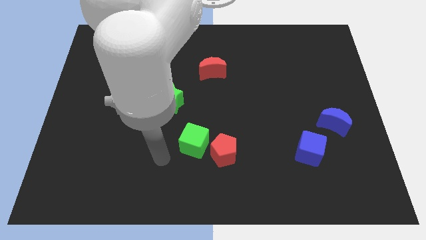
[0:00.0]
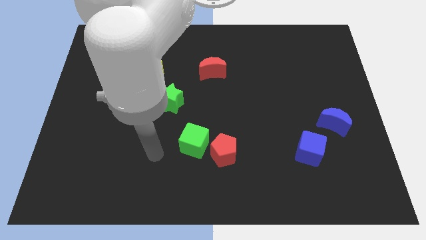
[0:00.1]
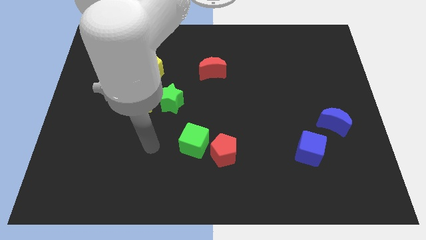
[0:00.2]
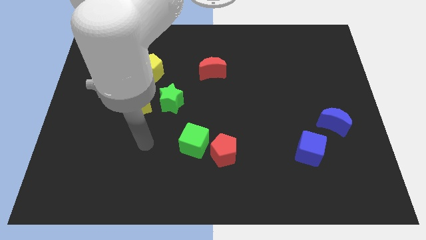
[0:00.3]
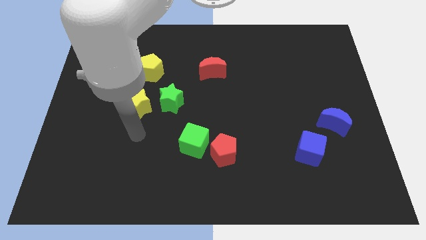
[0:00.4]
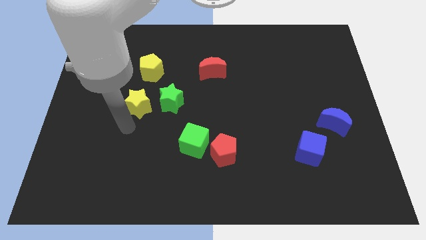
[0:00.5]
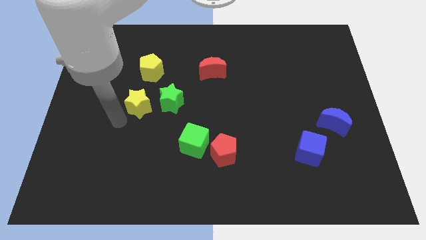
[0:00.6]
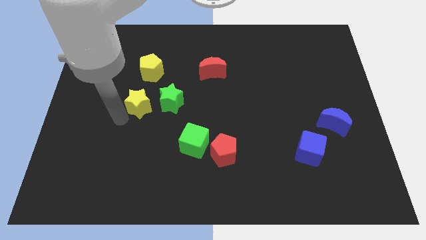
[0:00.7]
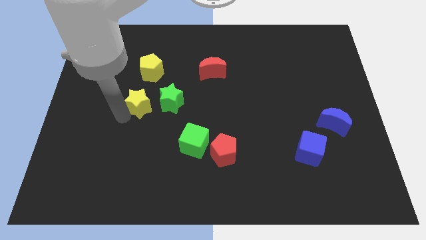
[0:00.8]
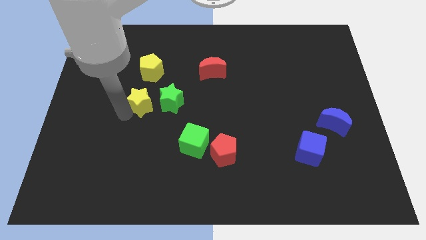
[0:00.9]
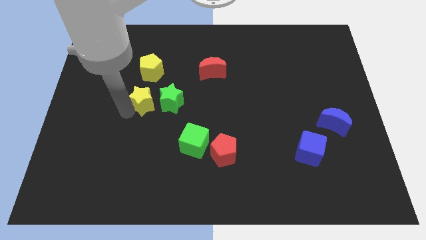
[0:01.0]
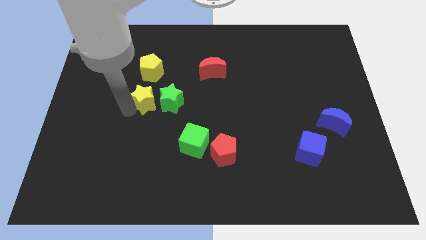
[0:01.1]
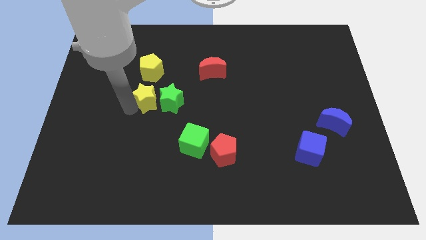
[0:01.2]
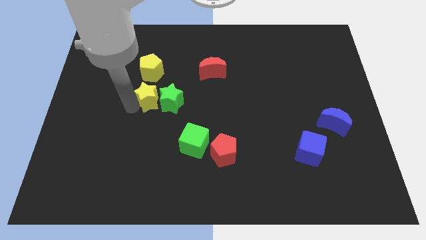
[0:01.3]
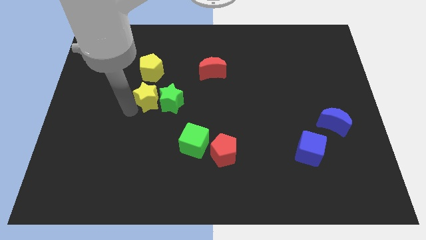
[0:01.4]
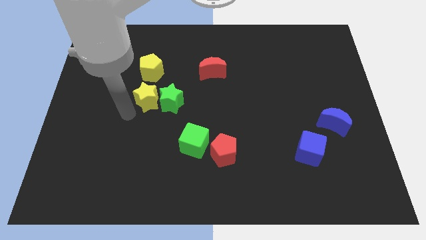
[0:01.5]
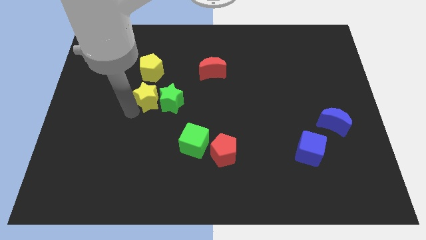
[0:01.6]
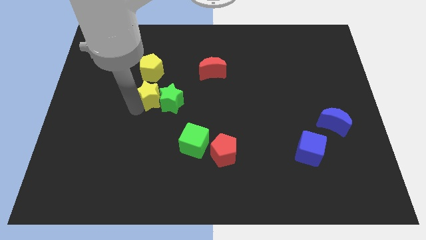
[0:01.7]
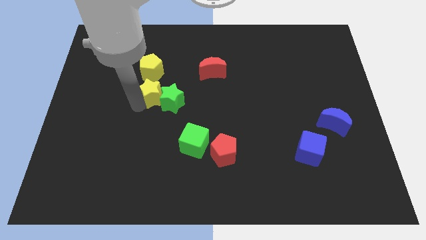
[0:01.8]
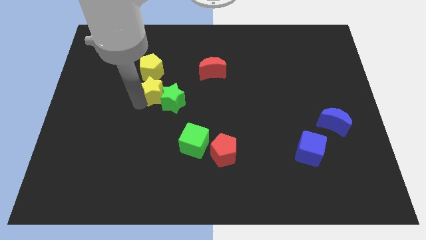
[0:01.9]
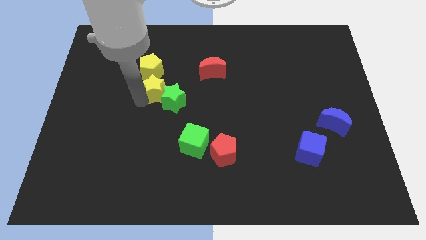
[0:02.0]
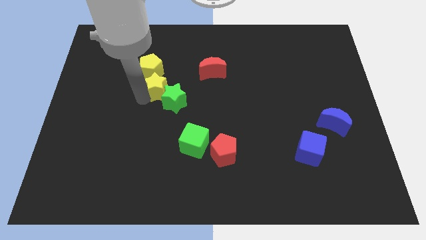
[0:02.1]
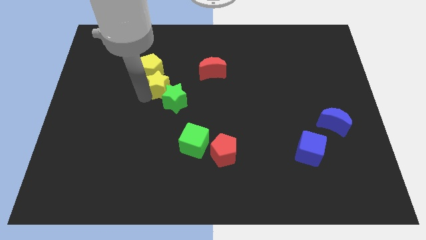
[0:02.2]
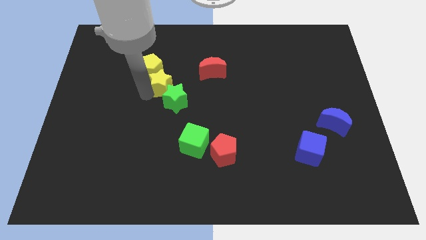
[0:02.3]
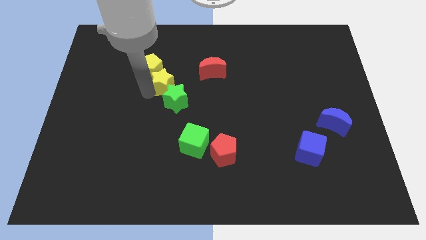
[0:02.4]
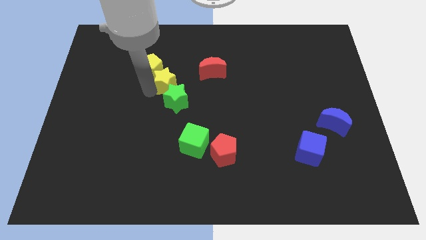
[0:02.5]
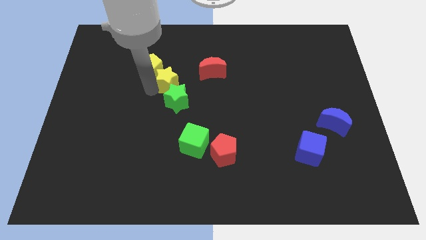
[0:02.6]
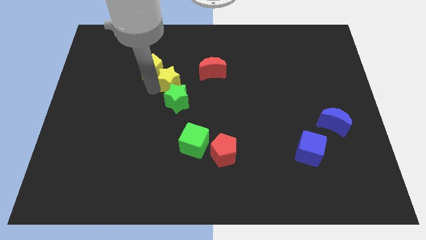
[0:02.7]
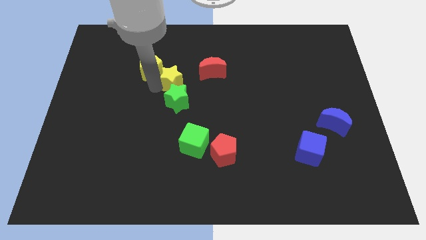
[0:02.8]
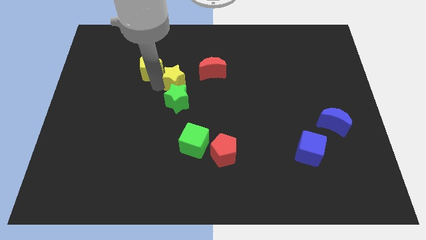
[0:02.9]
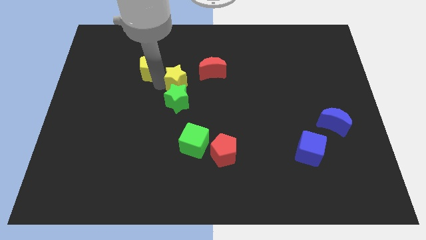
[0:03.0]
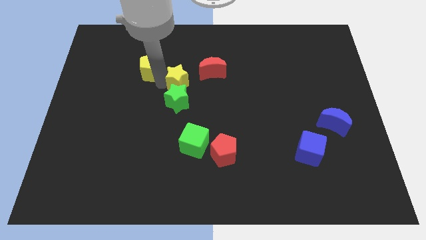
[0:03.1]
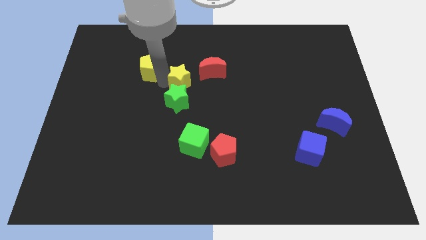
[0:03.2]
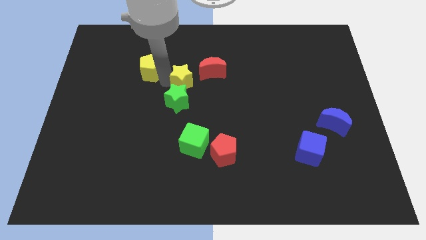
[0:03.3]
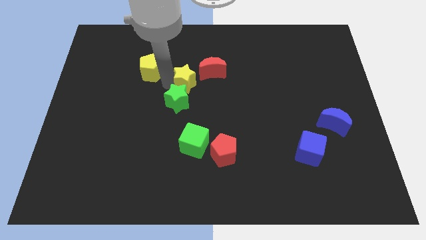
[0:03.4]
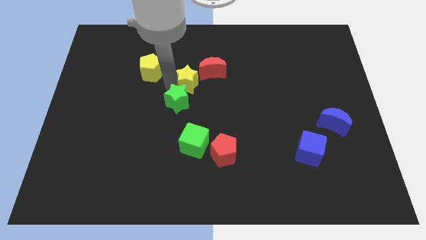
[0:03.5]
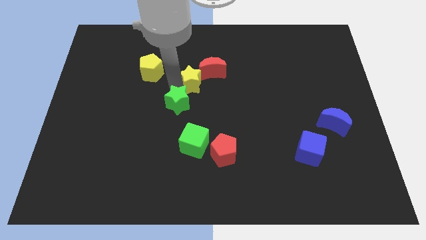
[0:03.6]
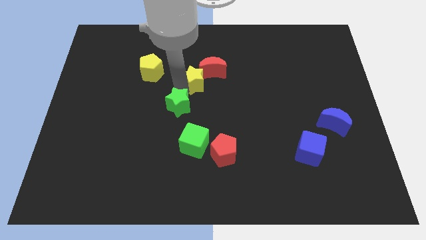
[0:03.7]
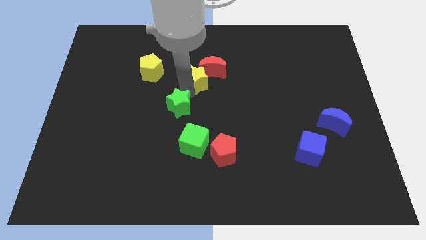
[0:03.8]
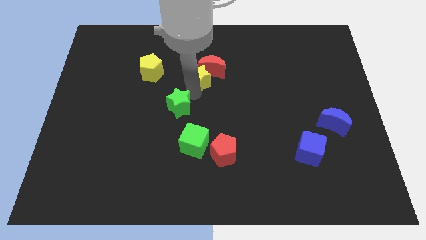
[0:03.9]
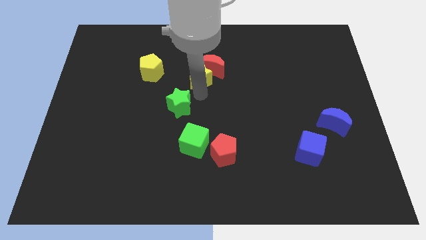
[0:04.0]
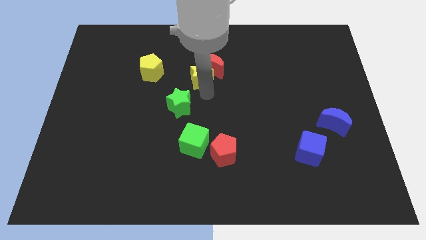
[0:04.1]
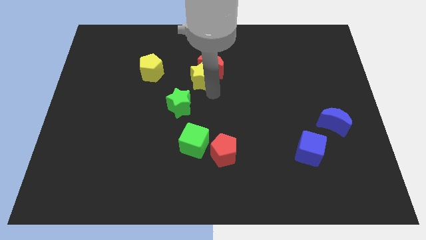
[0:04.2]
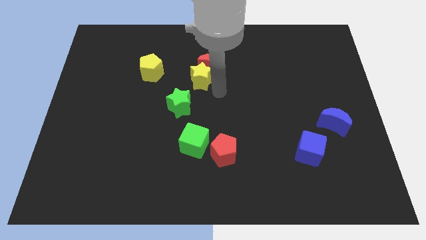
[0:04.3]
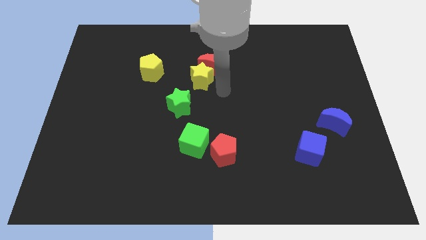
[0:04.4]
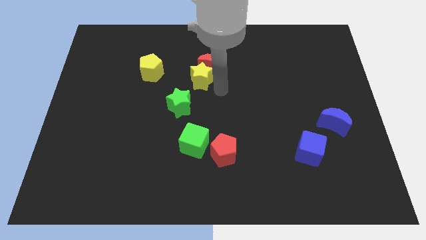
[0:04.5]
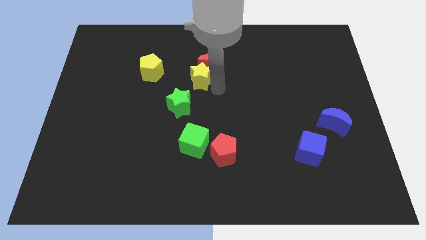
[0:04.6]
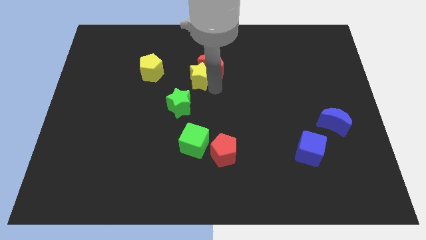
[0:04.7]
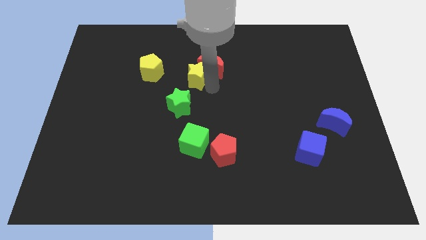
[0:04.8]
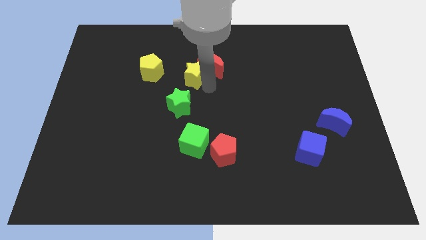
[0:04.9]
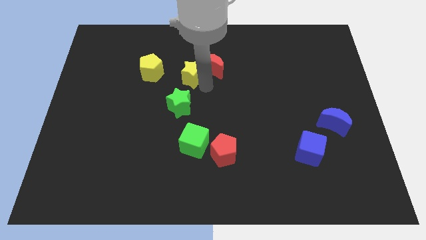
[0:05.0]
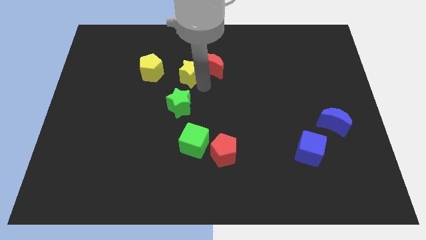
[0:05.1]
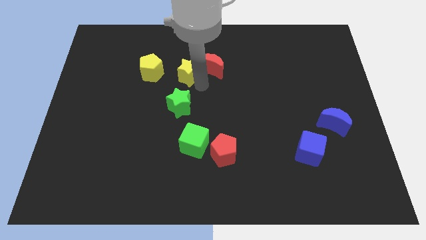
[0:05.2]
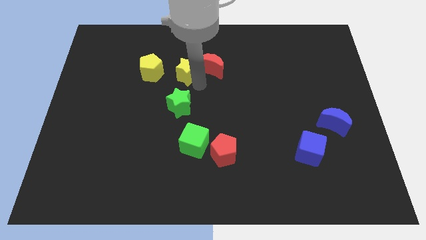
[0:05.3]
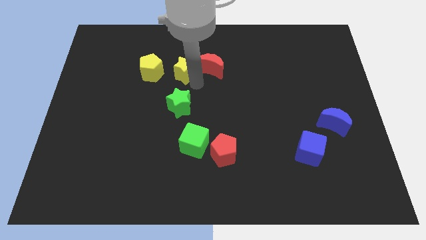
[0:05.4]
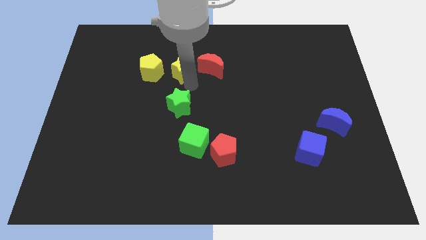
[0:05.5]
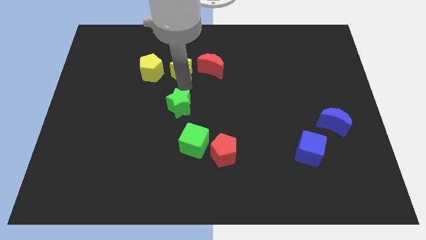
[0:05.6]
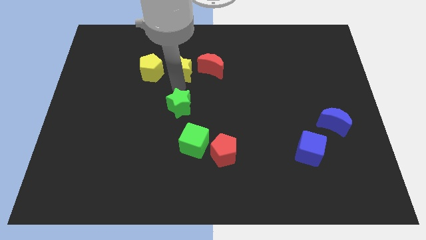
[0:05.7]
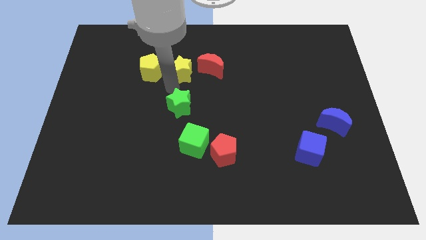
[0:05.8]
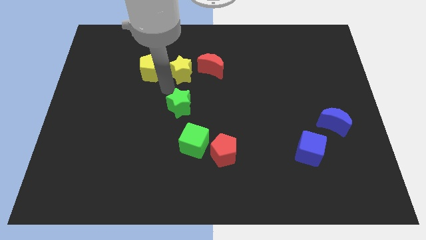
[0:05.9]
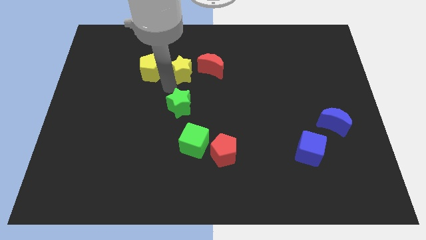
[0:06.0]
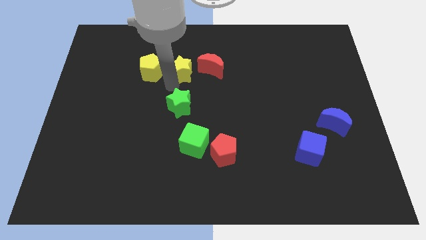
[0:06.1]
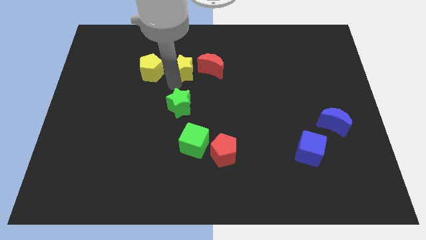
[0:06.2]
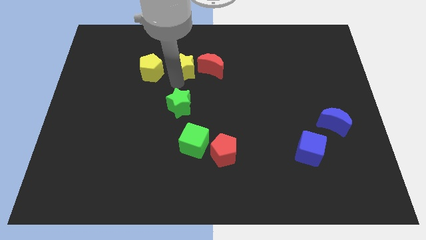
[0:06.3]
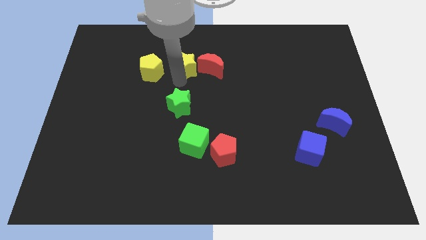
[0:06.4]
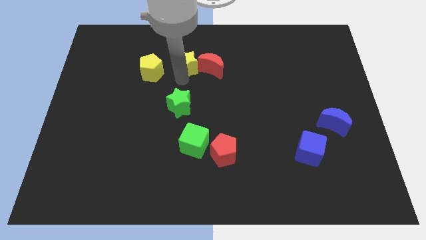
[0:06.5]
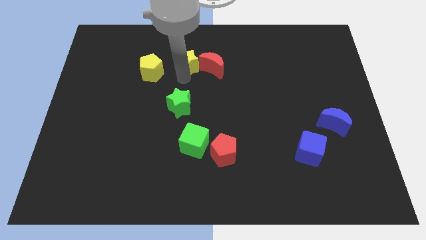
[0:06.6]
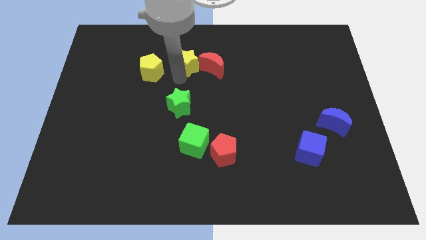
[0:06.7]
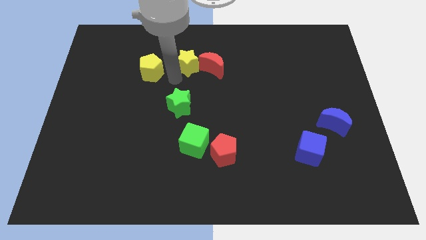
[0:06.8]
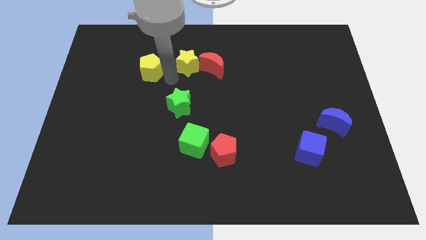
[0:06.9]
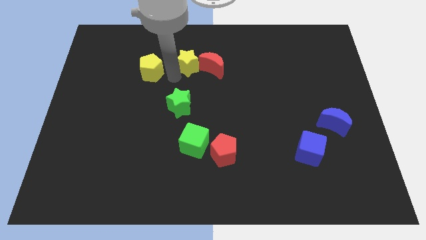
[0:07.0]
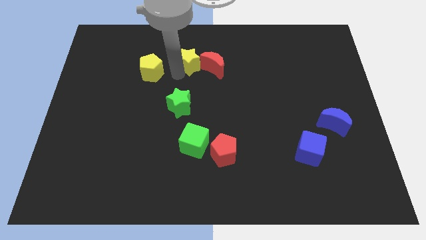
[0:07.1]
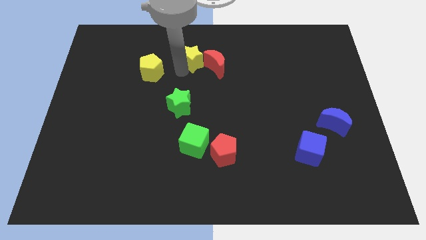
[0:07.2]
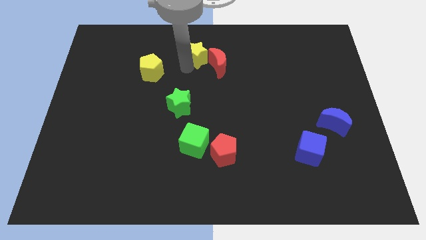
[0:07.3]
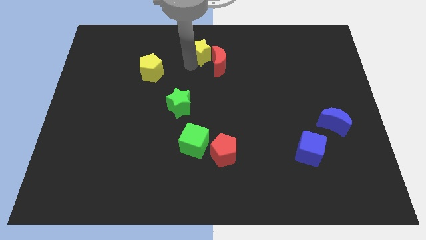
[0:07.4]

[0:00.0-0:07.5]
slide the yellow star to the top
